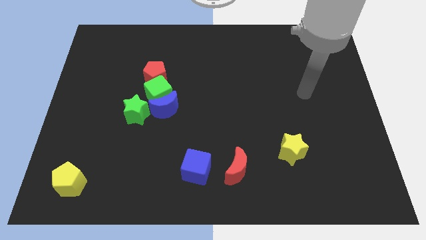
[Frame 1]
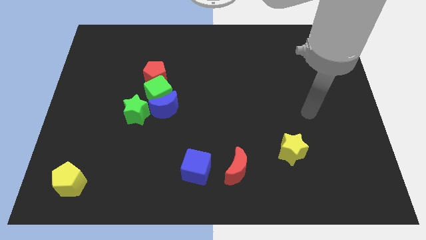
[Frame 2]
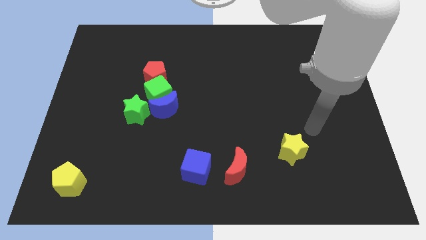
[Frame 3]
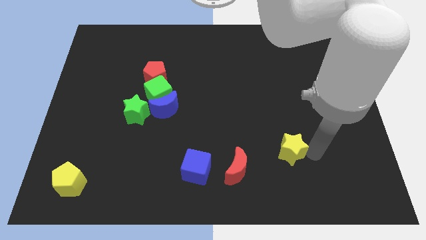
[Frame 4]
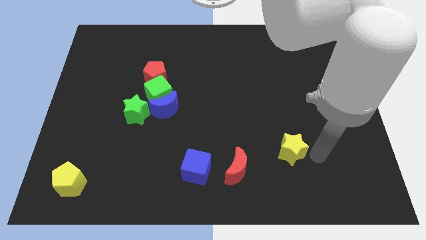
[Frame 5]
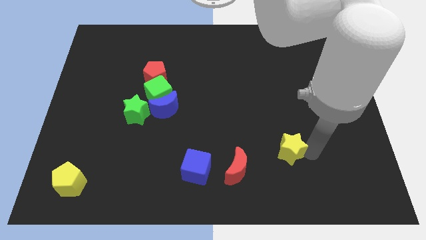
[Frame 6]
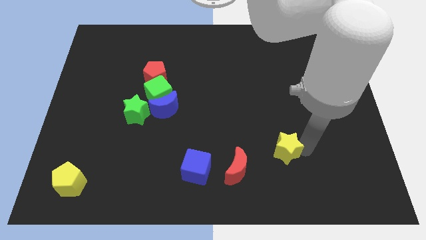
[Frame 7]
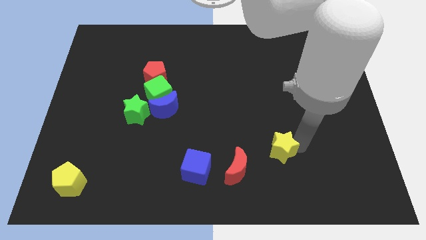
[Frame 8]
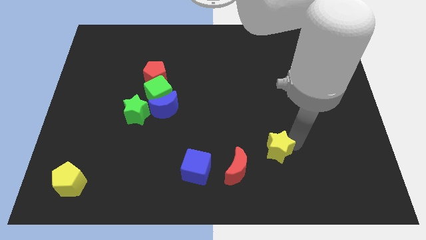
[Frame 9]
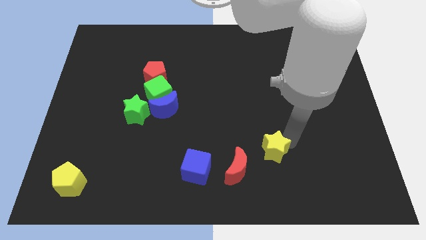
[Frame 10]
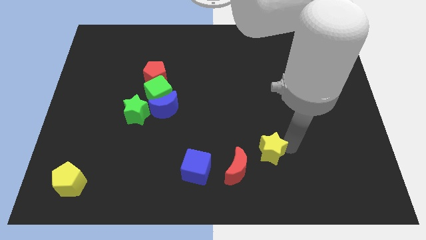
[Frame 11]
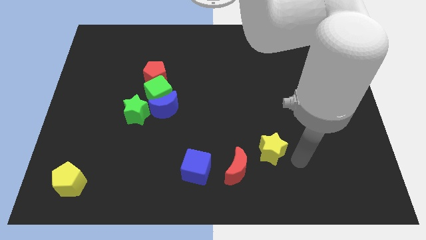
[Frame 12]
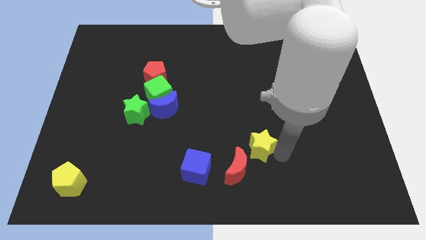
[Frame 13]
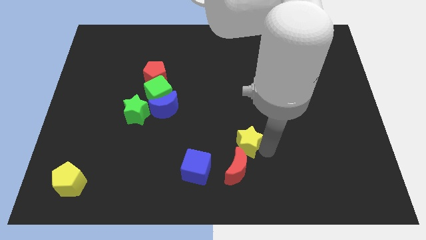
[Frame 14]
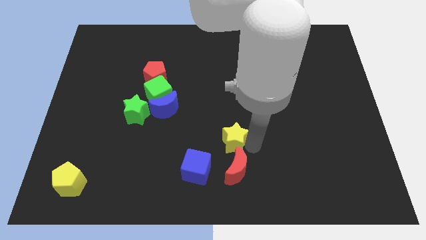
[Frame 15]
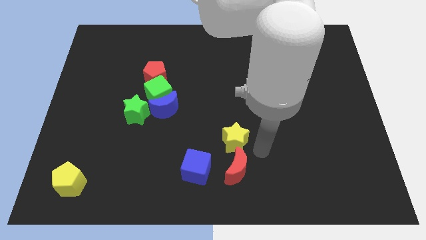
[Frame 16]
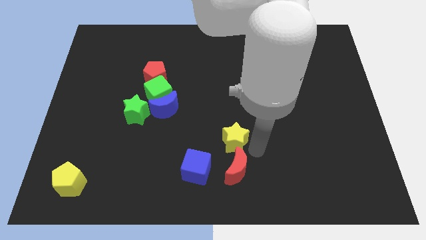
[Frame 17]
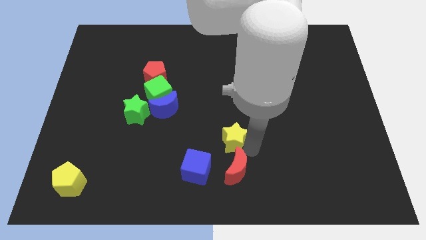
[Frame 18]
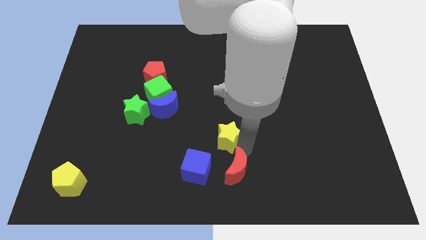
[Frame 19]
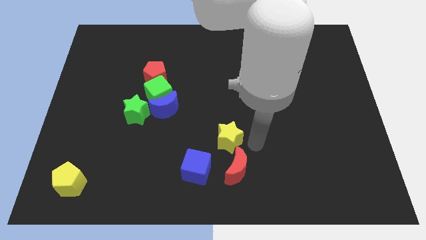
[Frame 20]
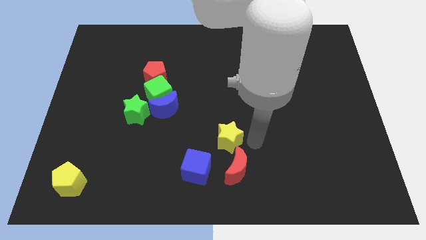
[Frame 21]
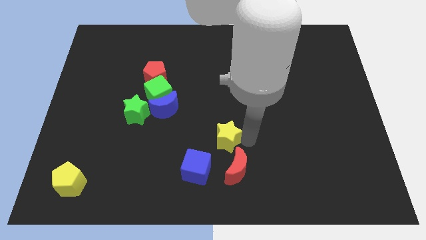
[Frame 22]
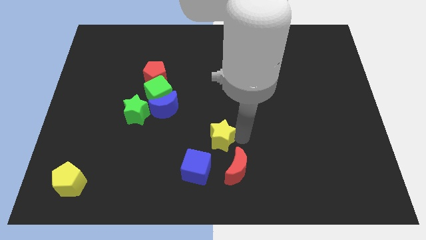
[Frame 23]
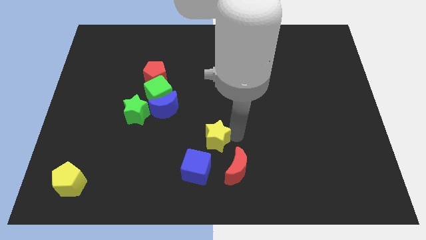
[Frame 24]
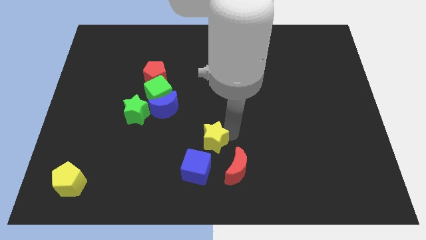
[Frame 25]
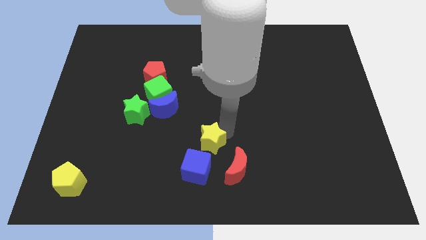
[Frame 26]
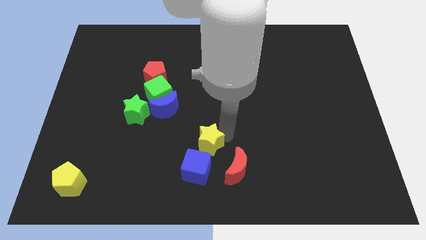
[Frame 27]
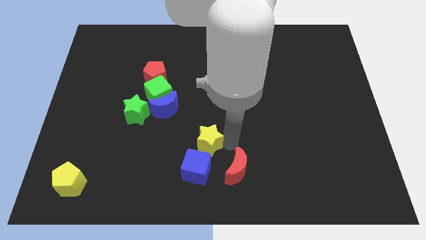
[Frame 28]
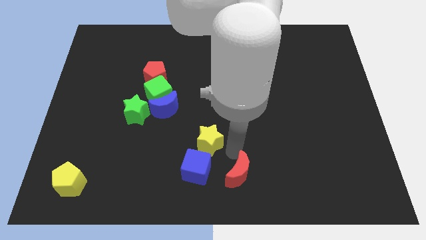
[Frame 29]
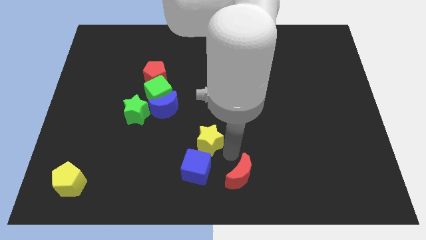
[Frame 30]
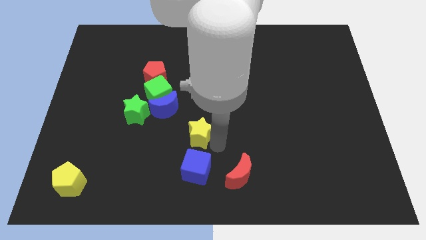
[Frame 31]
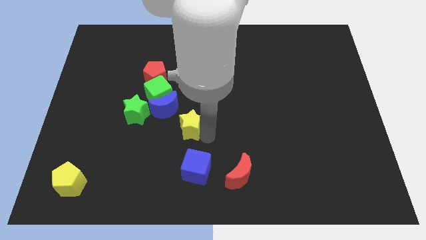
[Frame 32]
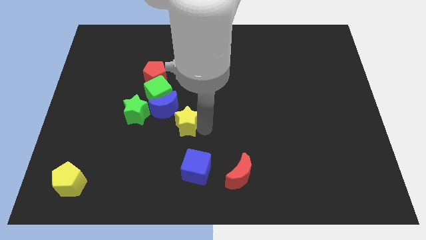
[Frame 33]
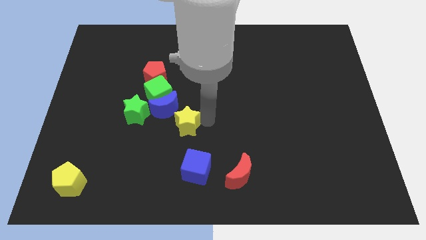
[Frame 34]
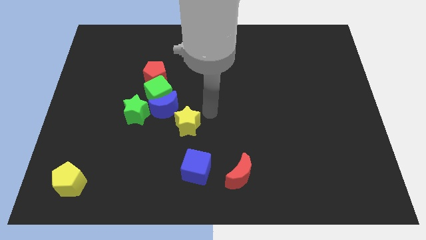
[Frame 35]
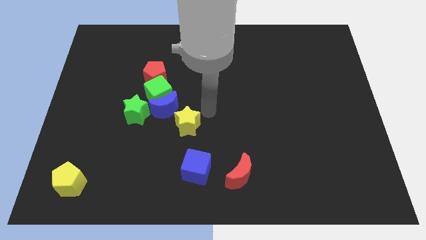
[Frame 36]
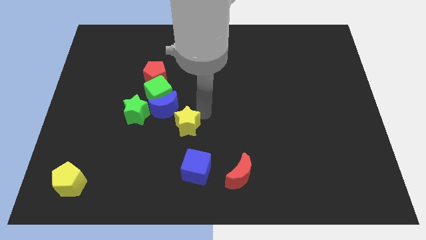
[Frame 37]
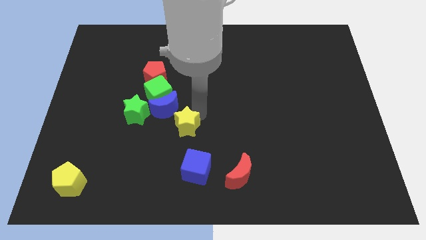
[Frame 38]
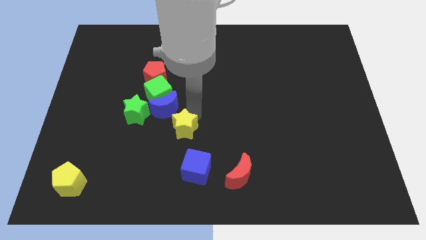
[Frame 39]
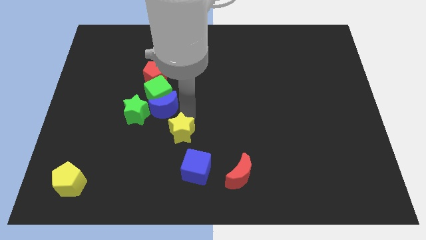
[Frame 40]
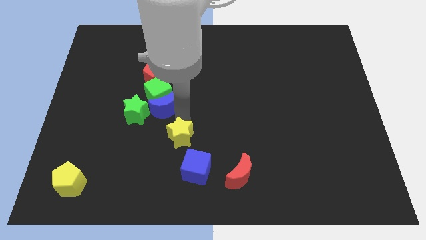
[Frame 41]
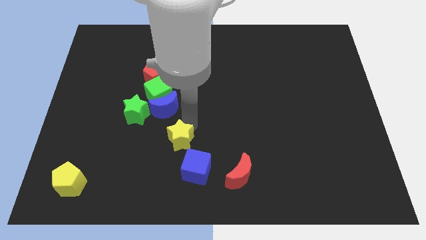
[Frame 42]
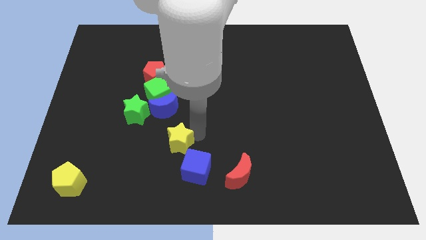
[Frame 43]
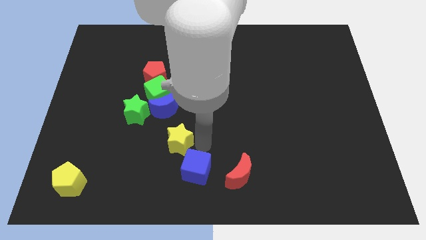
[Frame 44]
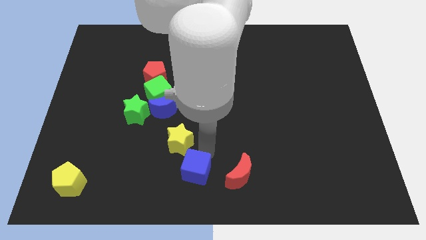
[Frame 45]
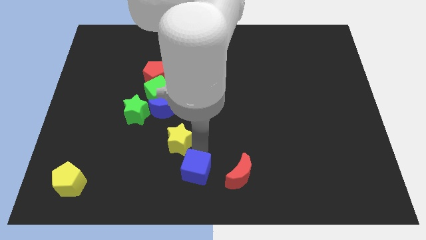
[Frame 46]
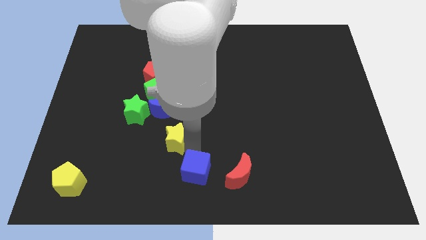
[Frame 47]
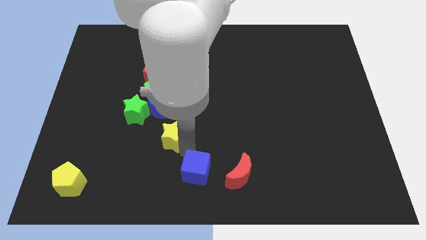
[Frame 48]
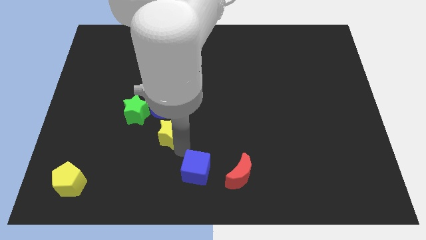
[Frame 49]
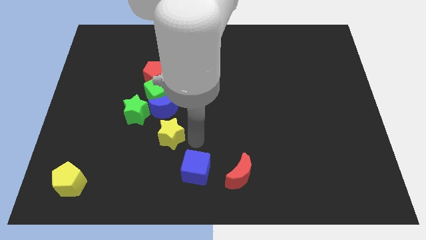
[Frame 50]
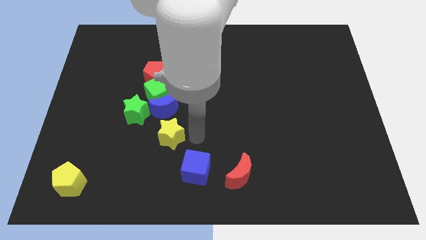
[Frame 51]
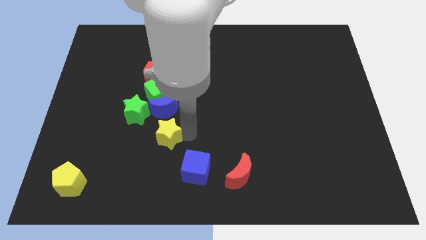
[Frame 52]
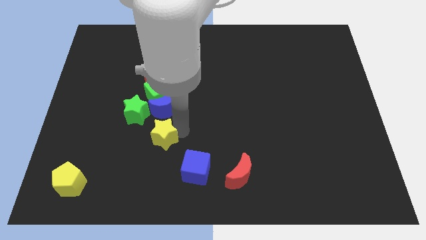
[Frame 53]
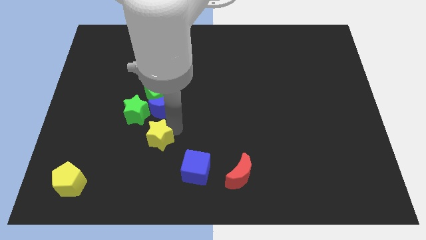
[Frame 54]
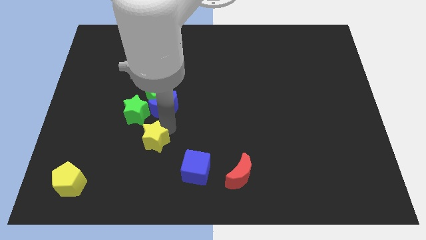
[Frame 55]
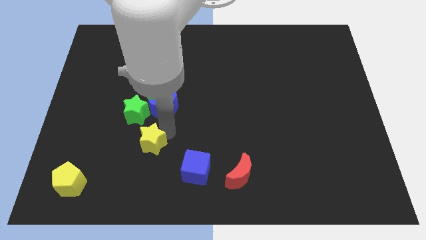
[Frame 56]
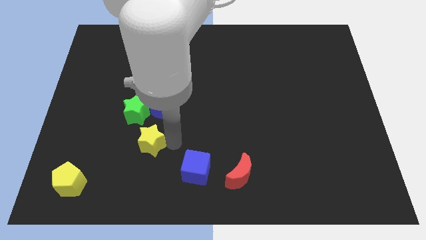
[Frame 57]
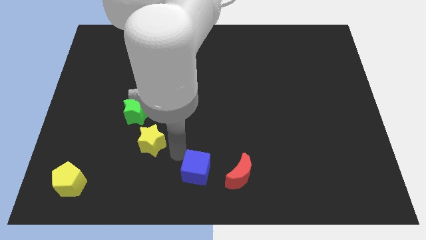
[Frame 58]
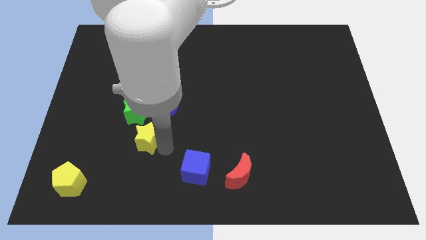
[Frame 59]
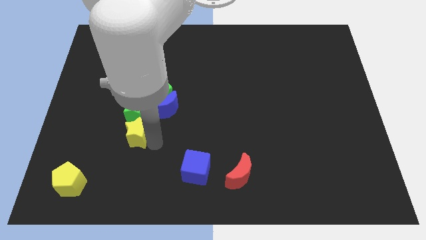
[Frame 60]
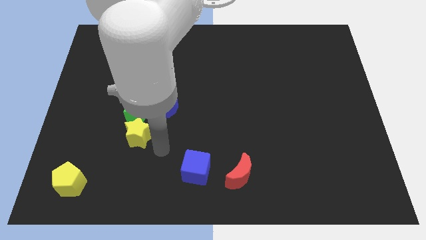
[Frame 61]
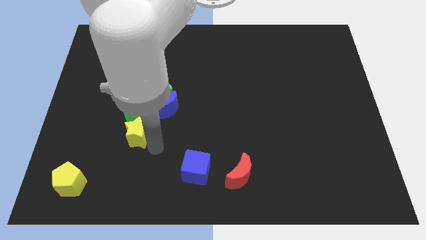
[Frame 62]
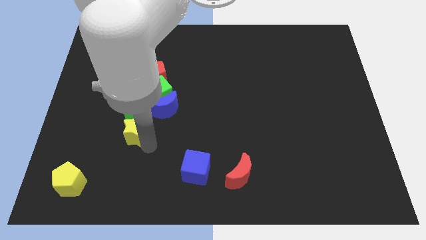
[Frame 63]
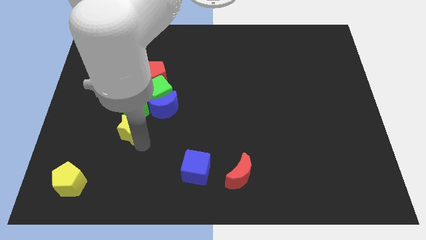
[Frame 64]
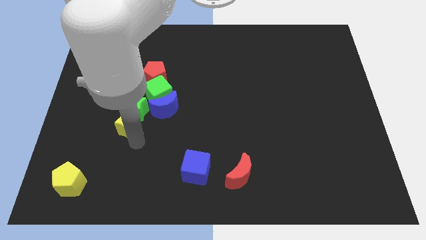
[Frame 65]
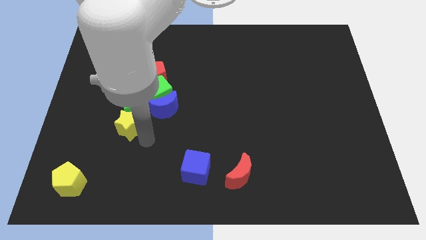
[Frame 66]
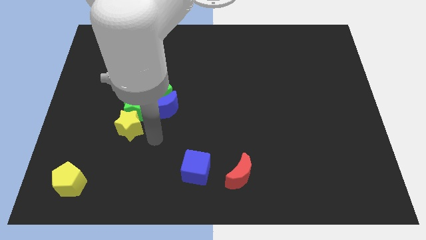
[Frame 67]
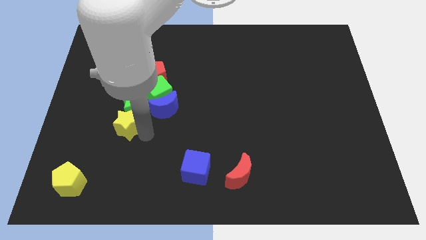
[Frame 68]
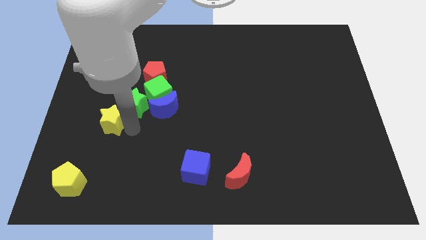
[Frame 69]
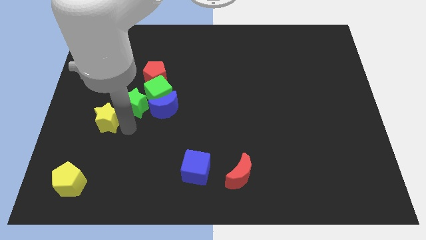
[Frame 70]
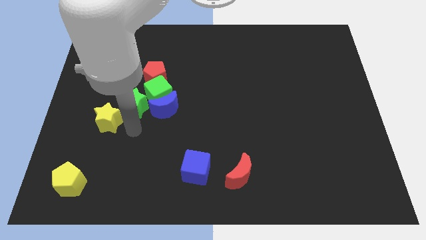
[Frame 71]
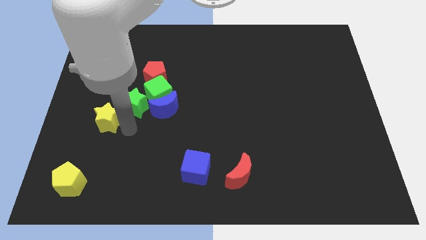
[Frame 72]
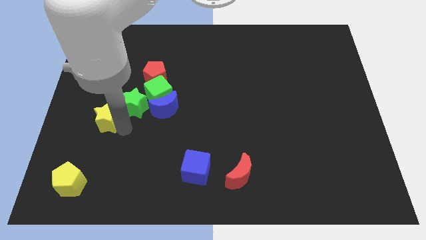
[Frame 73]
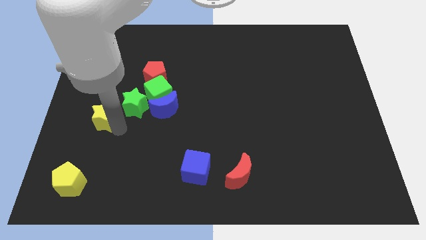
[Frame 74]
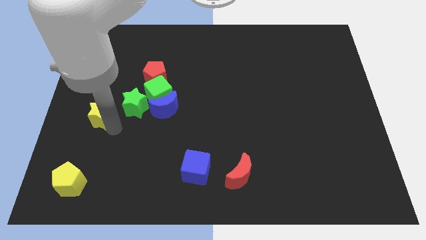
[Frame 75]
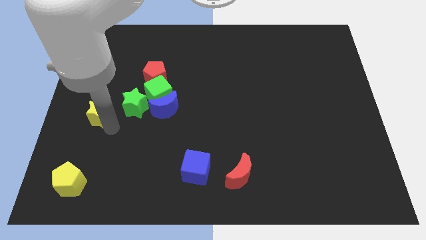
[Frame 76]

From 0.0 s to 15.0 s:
slide the yellow star to the center left
